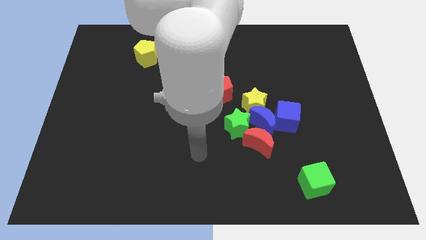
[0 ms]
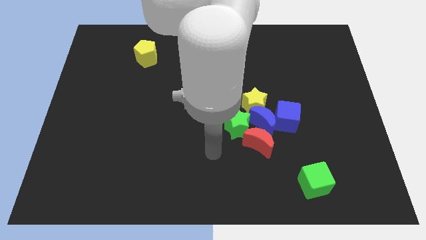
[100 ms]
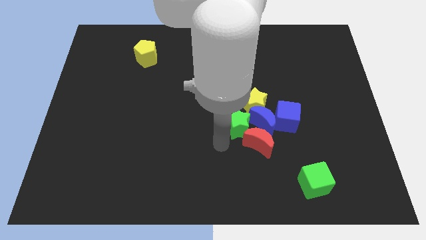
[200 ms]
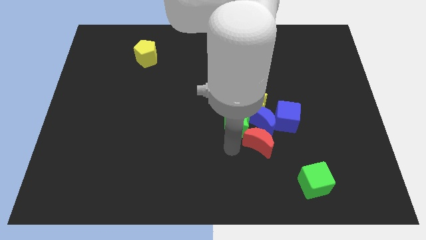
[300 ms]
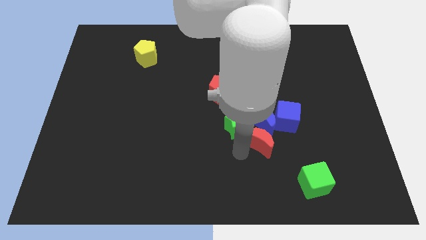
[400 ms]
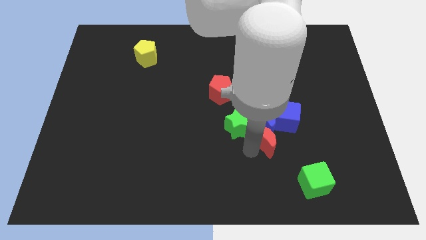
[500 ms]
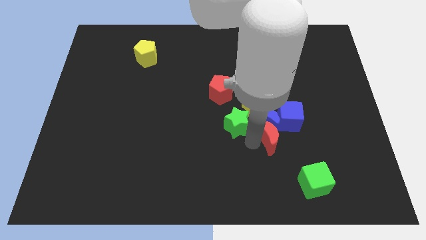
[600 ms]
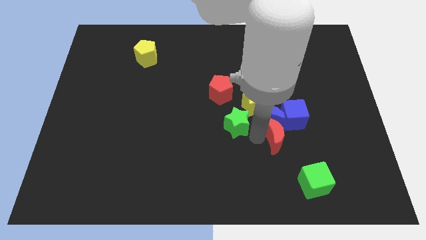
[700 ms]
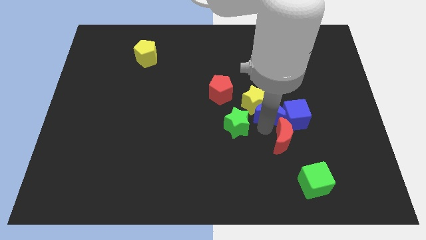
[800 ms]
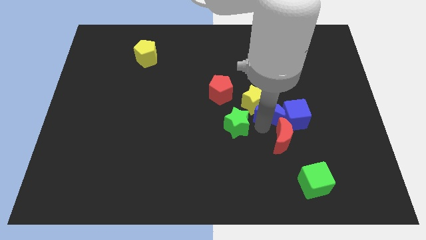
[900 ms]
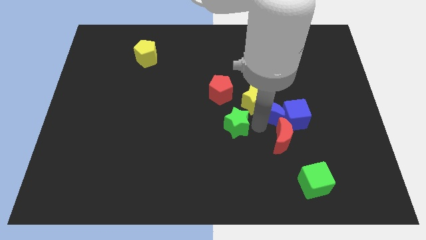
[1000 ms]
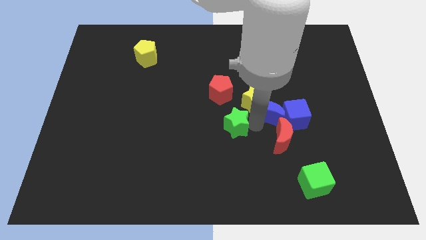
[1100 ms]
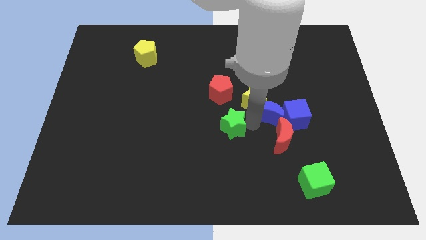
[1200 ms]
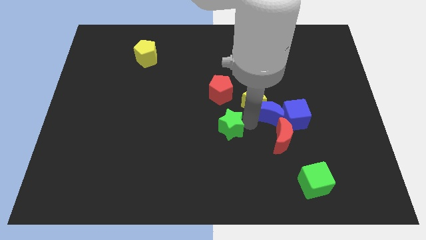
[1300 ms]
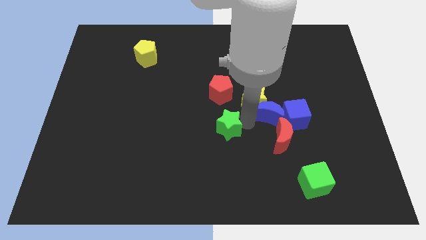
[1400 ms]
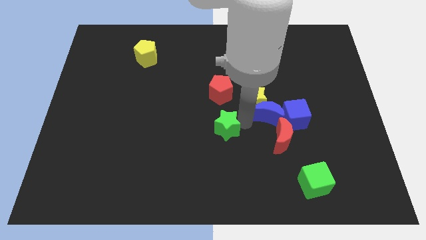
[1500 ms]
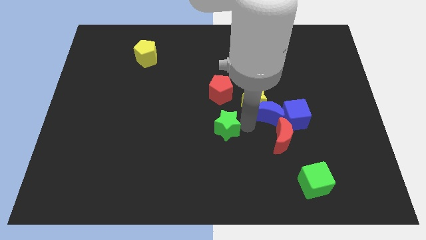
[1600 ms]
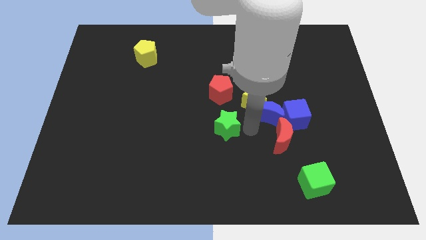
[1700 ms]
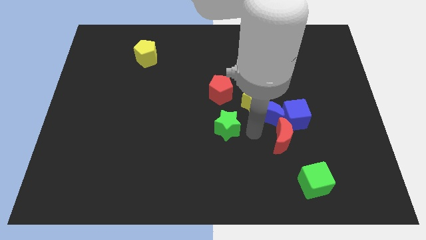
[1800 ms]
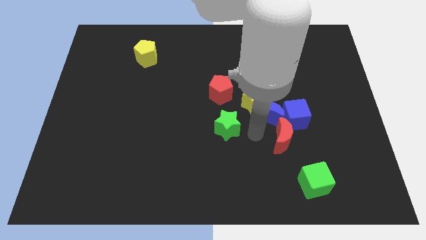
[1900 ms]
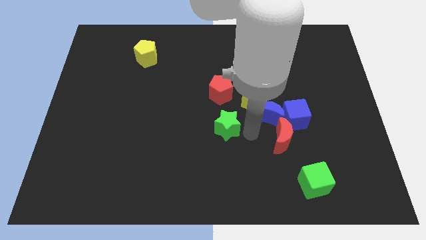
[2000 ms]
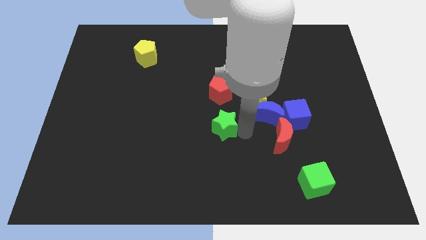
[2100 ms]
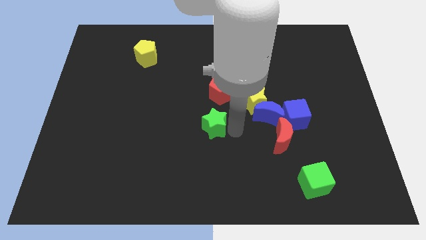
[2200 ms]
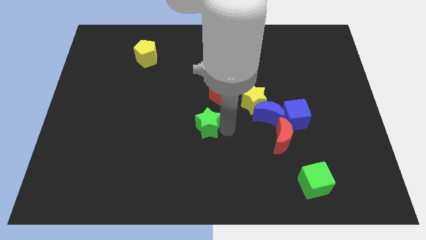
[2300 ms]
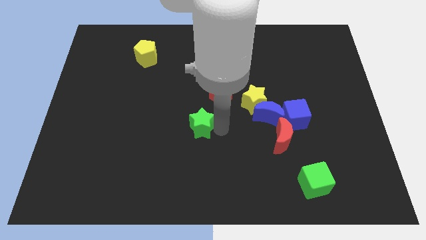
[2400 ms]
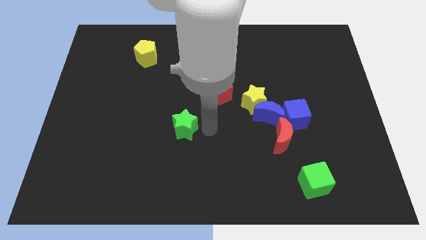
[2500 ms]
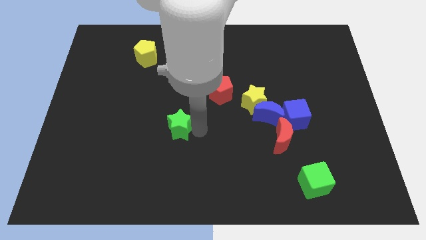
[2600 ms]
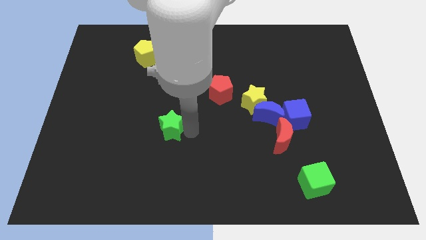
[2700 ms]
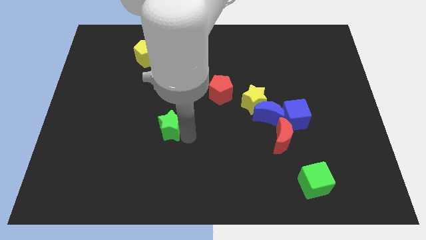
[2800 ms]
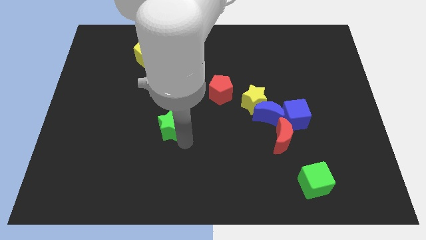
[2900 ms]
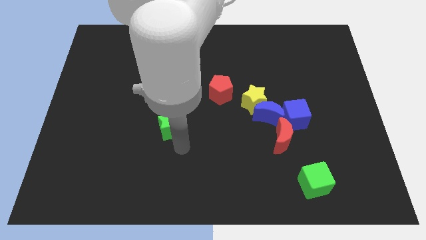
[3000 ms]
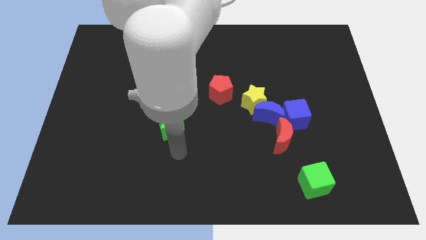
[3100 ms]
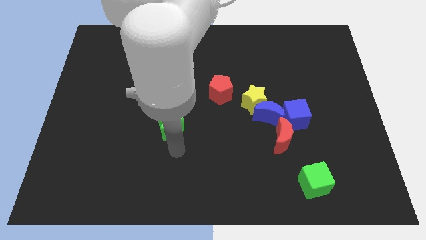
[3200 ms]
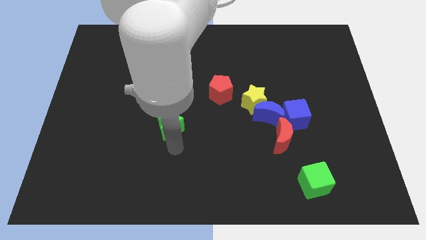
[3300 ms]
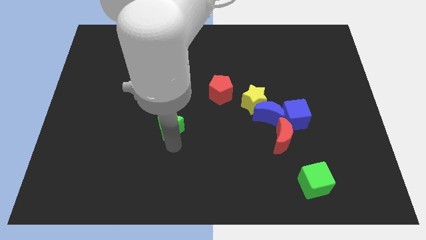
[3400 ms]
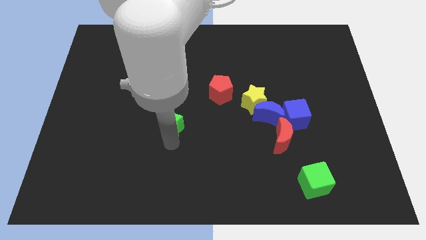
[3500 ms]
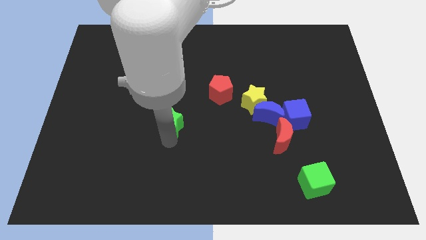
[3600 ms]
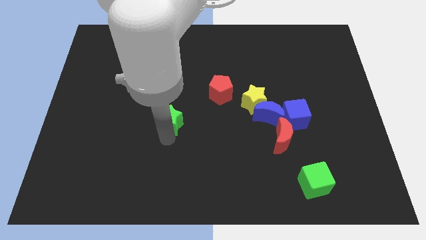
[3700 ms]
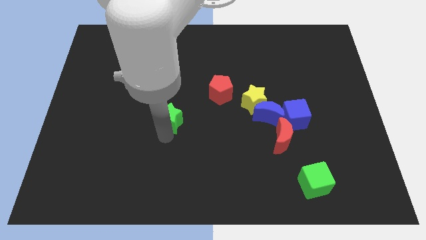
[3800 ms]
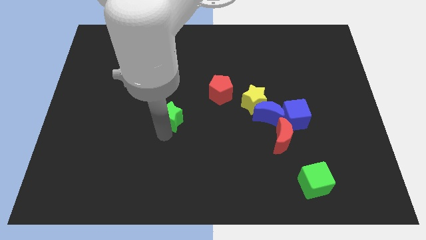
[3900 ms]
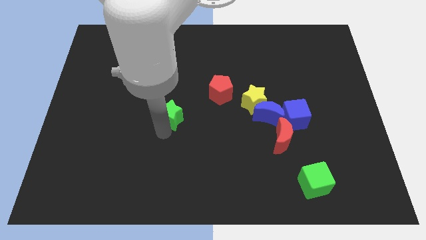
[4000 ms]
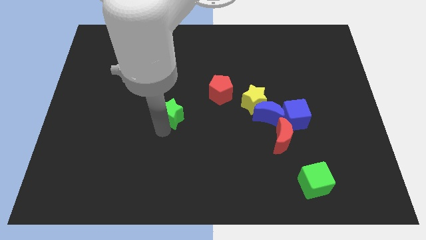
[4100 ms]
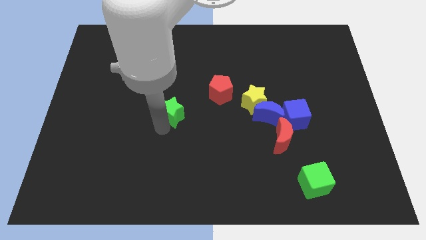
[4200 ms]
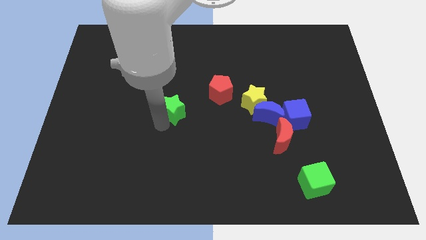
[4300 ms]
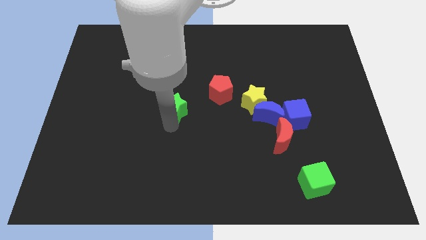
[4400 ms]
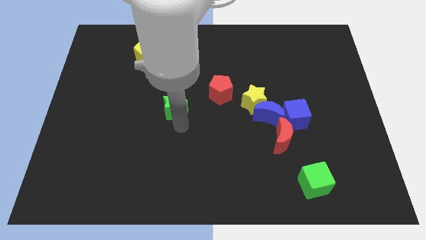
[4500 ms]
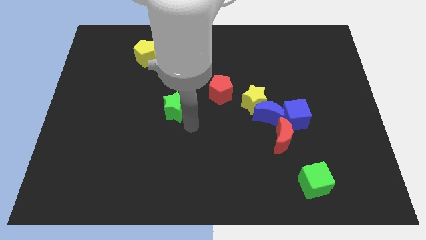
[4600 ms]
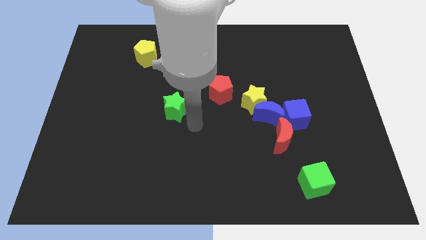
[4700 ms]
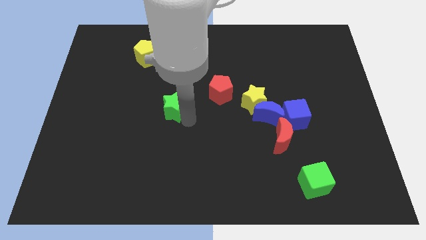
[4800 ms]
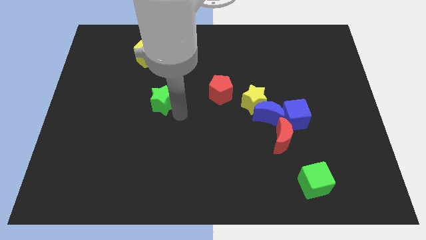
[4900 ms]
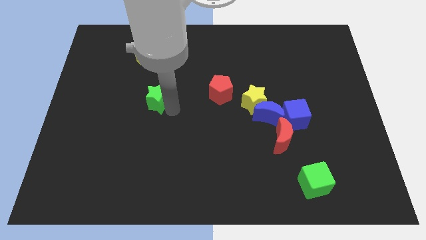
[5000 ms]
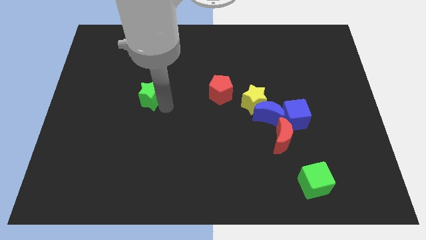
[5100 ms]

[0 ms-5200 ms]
move the green star to the bottom of the yellow pentagon

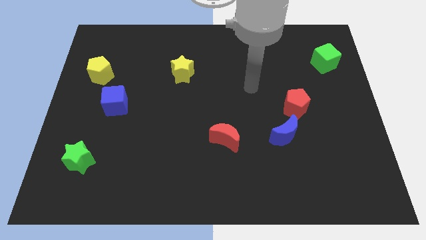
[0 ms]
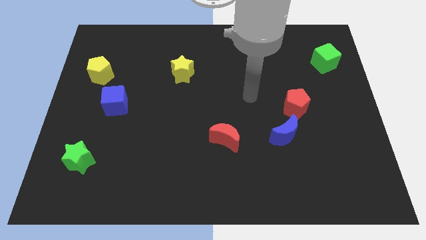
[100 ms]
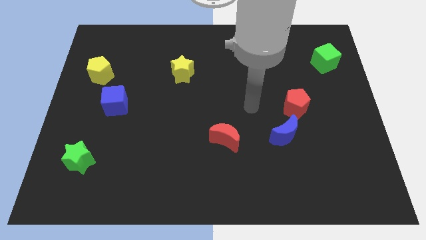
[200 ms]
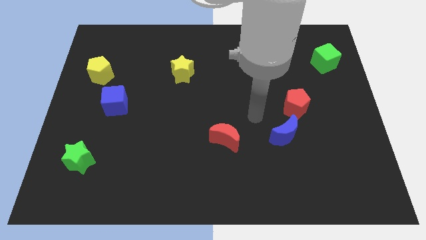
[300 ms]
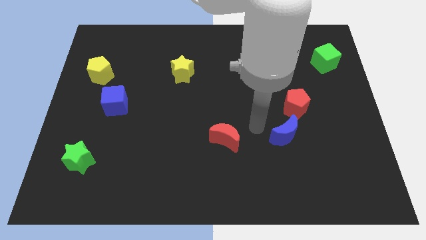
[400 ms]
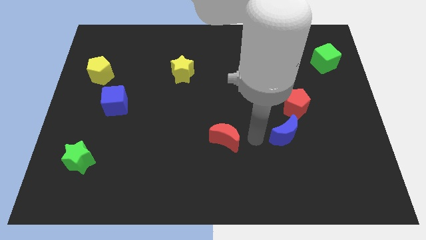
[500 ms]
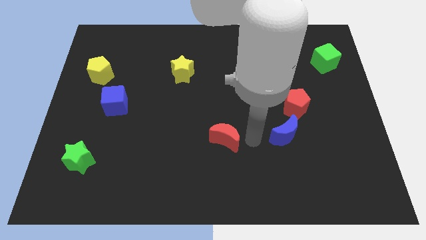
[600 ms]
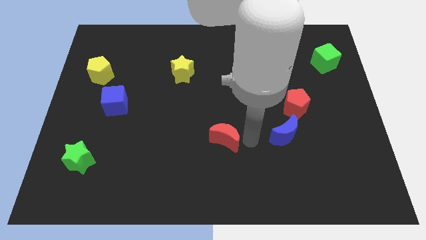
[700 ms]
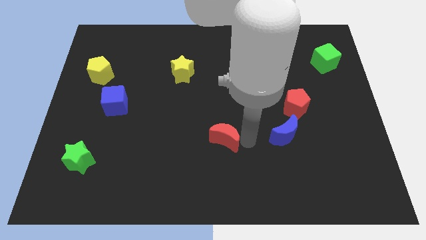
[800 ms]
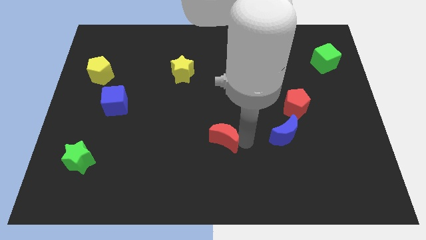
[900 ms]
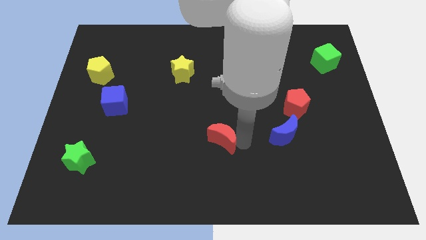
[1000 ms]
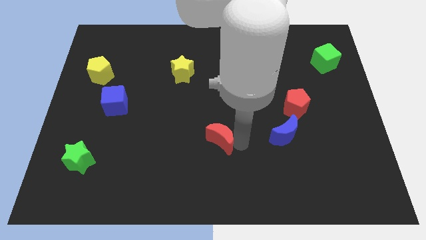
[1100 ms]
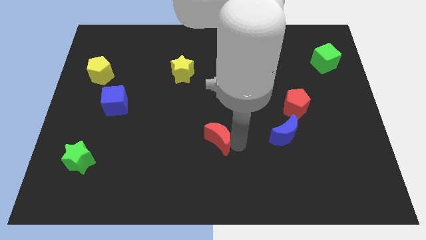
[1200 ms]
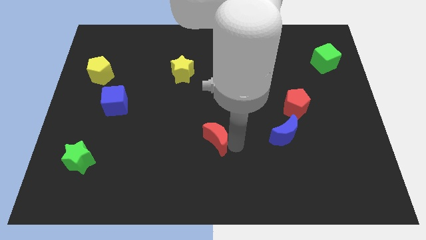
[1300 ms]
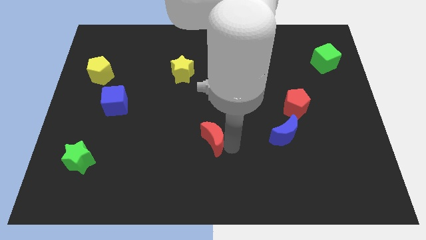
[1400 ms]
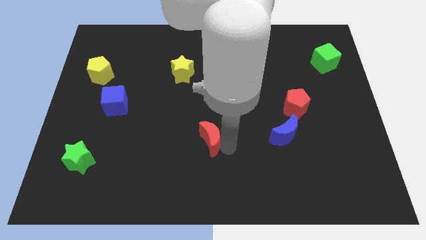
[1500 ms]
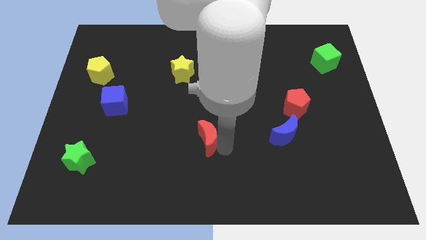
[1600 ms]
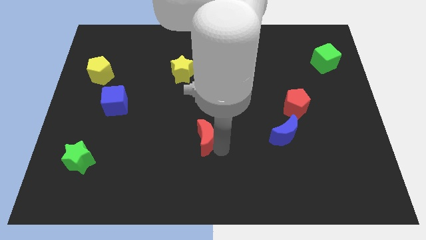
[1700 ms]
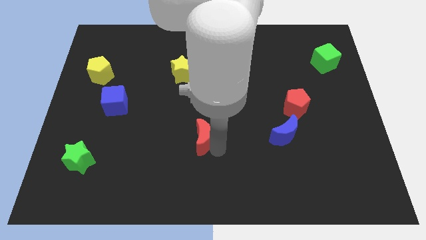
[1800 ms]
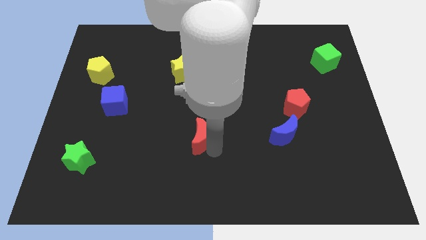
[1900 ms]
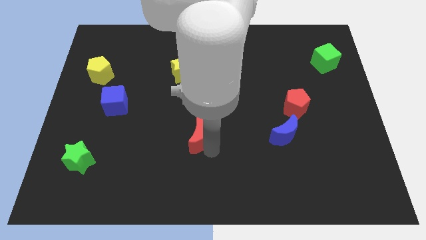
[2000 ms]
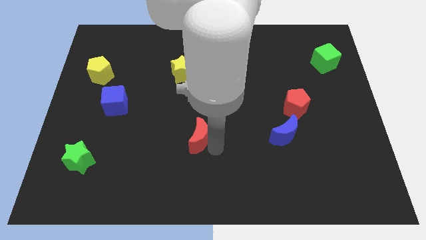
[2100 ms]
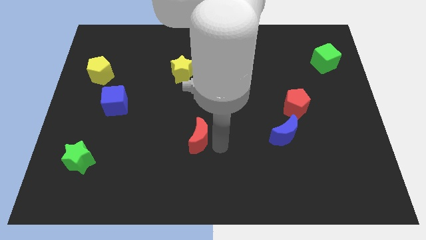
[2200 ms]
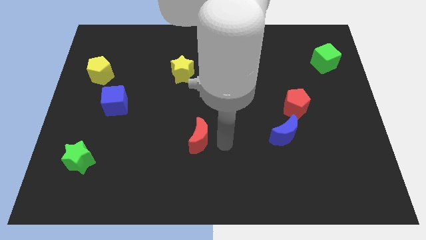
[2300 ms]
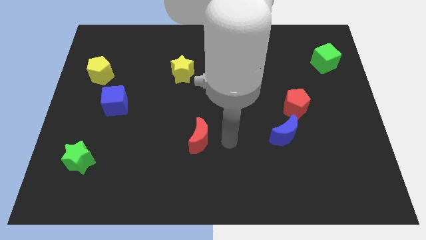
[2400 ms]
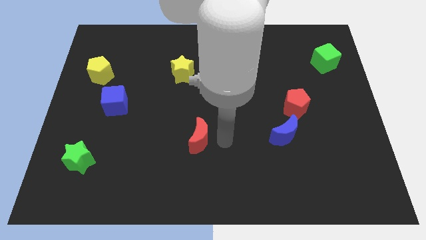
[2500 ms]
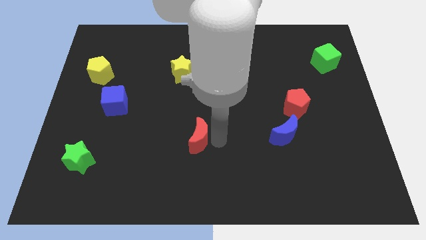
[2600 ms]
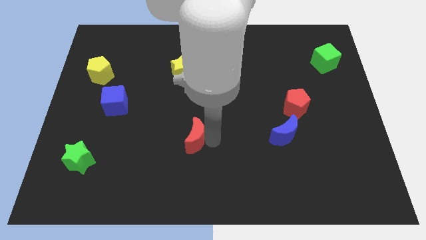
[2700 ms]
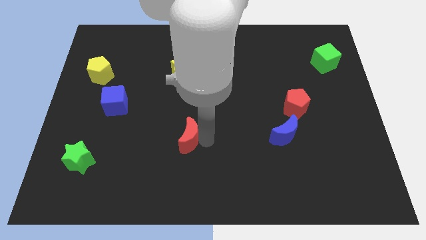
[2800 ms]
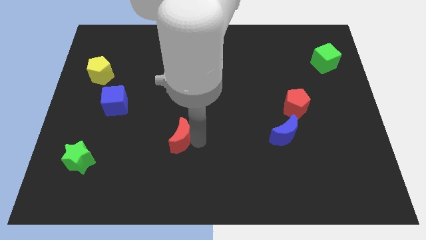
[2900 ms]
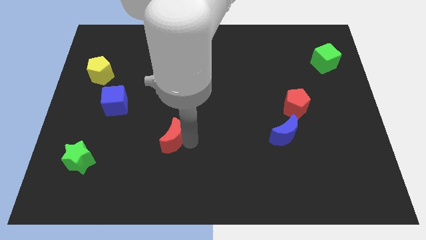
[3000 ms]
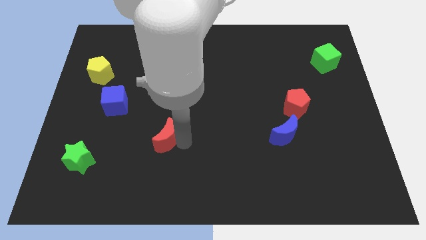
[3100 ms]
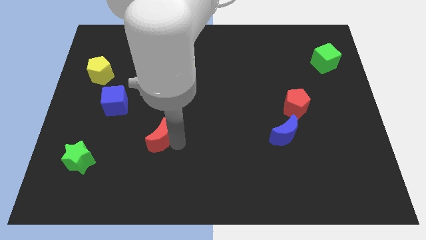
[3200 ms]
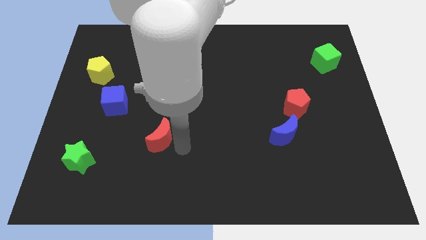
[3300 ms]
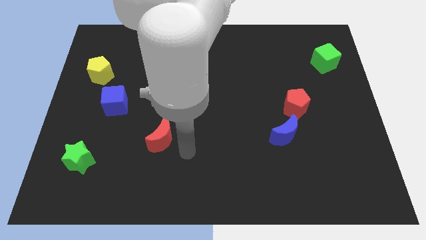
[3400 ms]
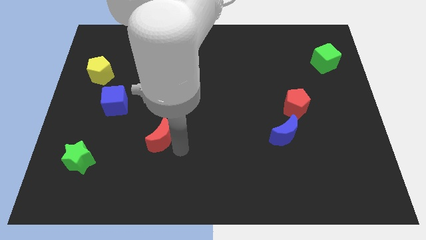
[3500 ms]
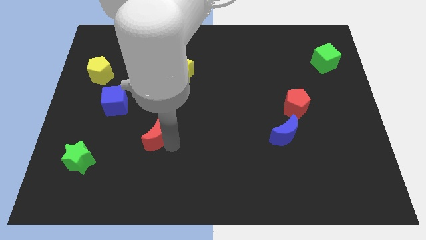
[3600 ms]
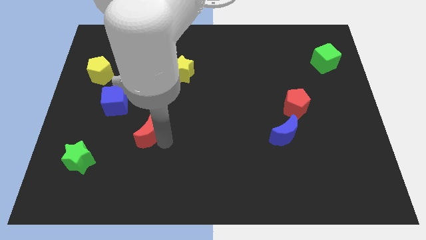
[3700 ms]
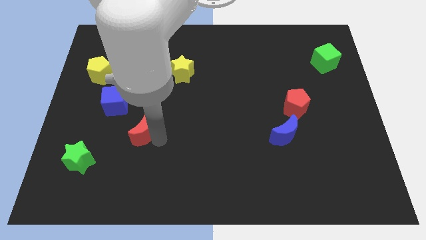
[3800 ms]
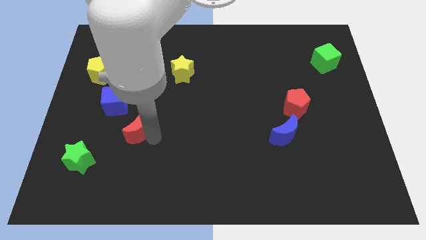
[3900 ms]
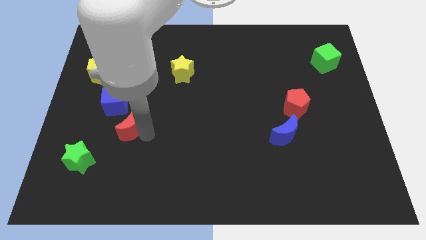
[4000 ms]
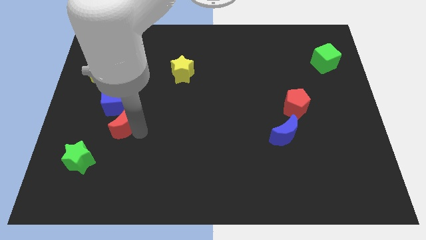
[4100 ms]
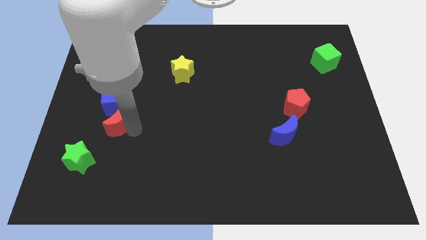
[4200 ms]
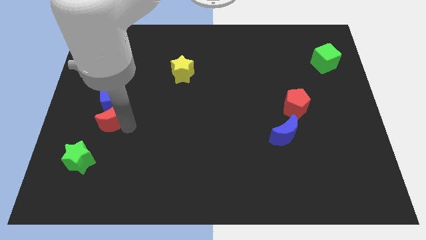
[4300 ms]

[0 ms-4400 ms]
put the red moon diagonally down and to the left of the blue cube
